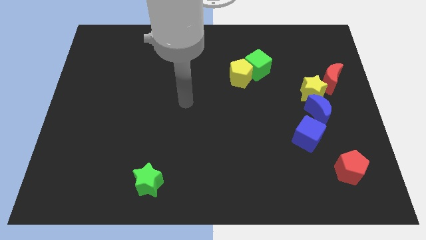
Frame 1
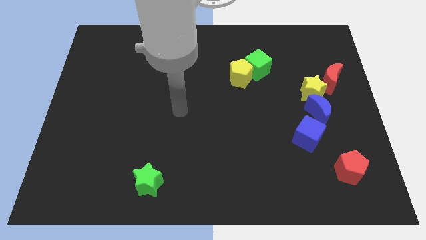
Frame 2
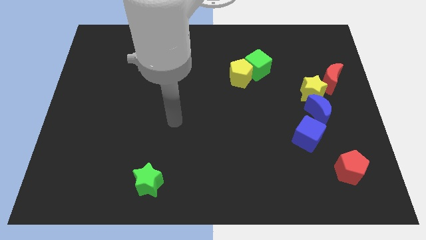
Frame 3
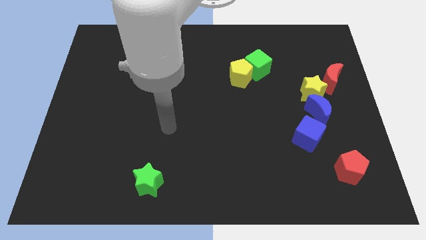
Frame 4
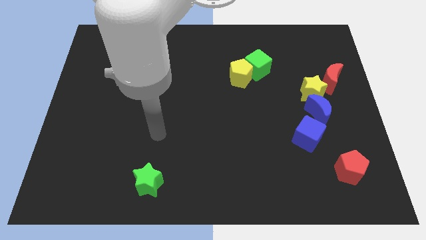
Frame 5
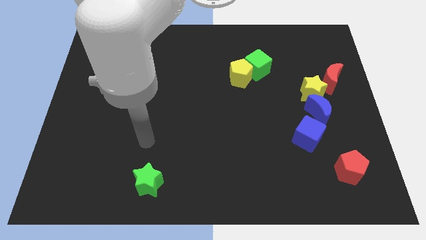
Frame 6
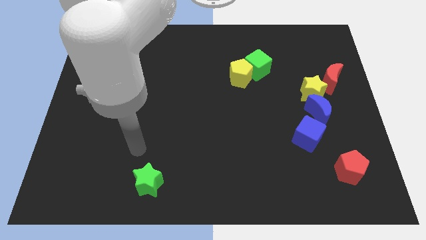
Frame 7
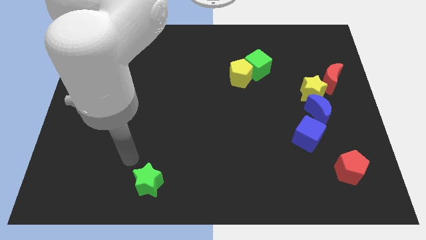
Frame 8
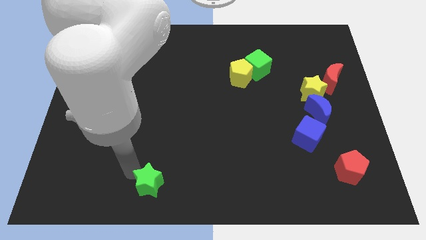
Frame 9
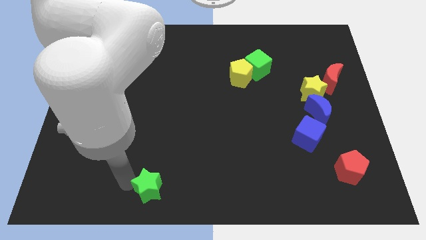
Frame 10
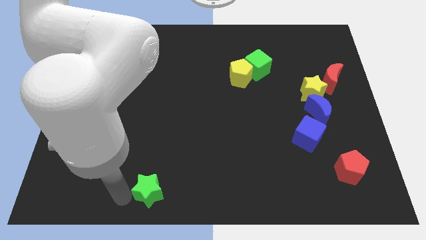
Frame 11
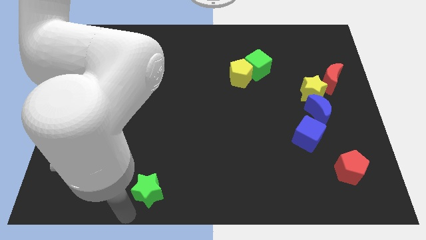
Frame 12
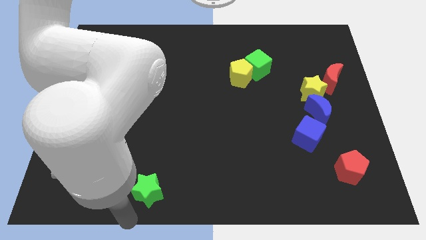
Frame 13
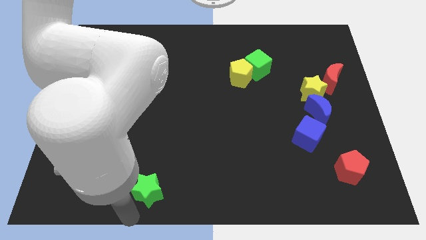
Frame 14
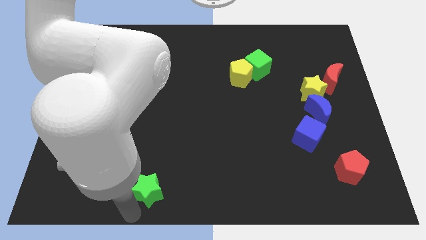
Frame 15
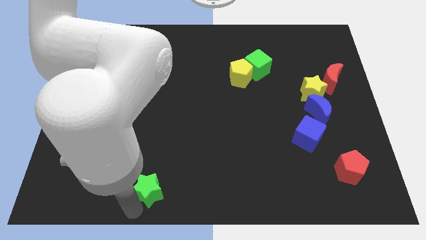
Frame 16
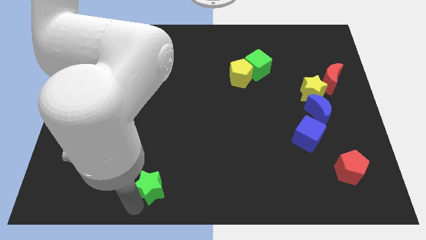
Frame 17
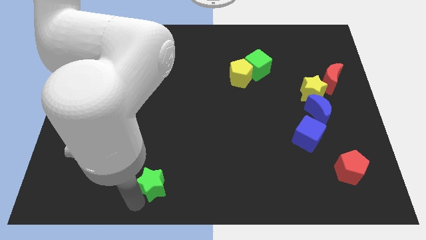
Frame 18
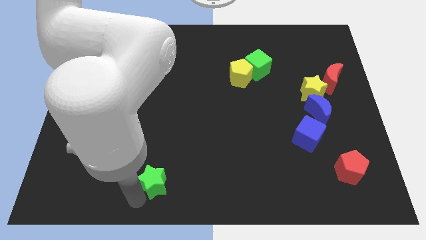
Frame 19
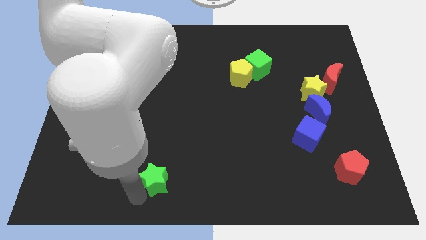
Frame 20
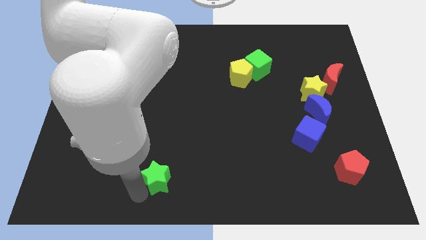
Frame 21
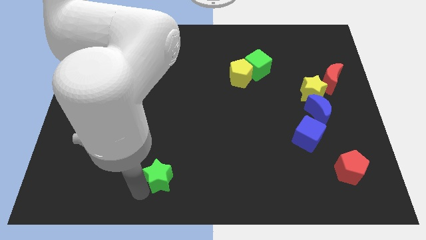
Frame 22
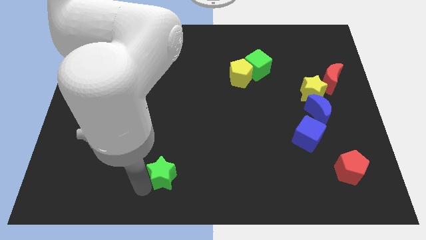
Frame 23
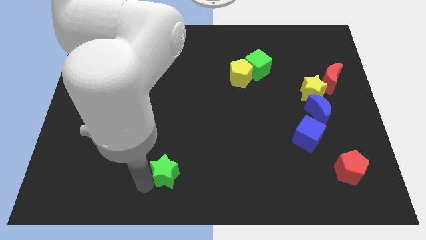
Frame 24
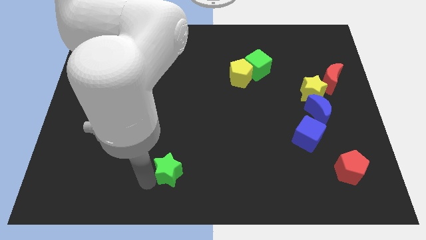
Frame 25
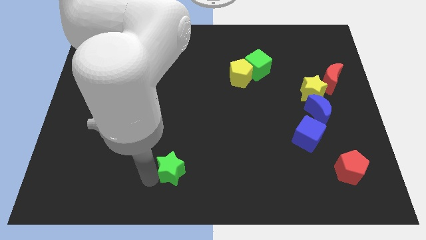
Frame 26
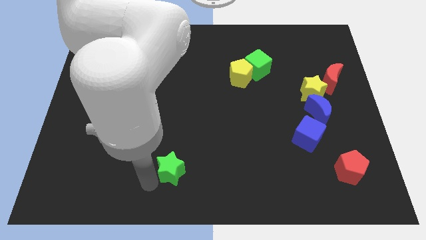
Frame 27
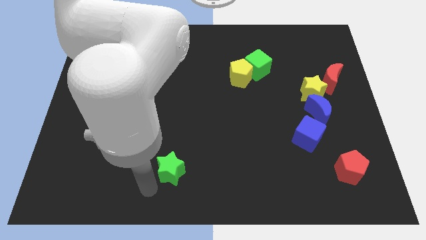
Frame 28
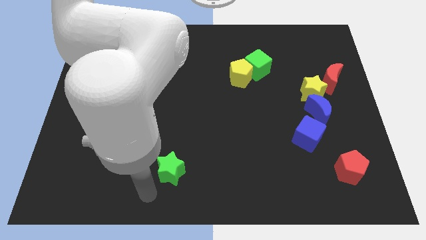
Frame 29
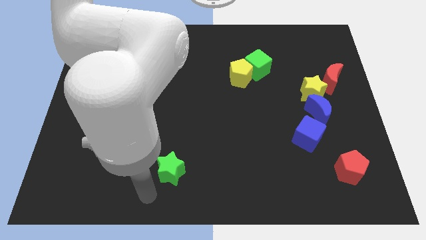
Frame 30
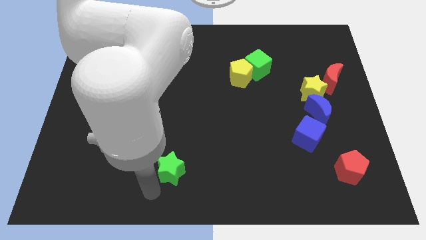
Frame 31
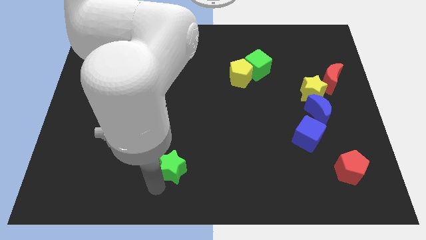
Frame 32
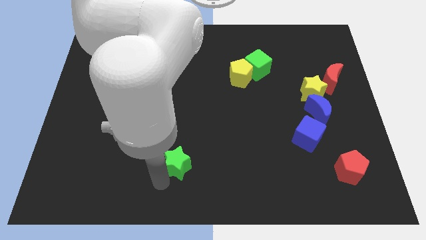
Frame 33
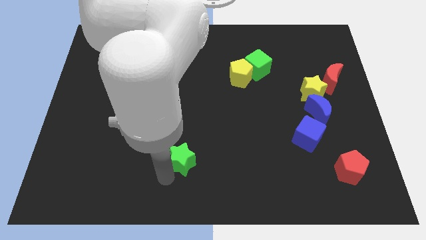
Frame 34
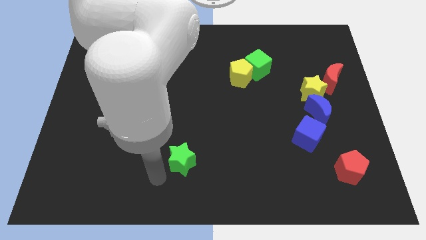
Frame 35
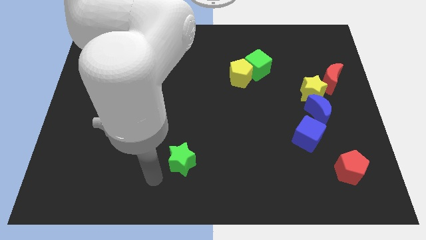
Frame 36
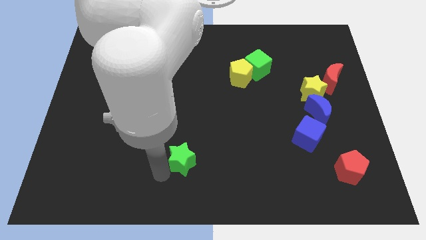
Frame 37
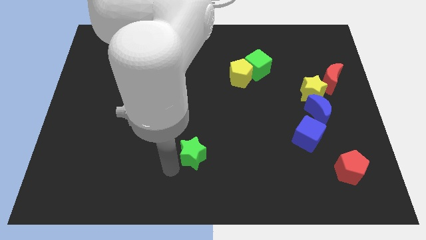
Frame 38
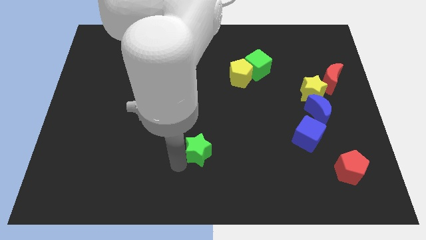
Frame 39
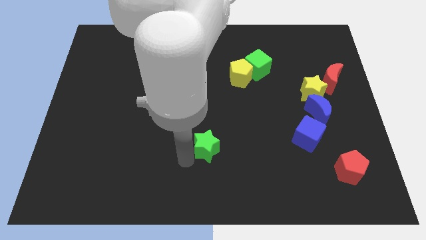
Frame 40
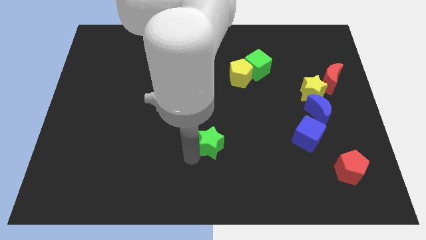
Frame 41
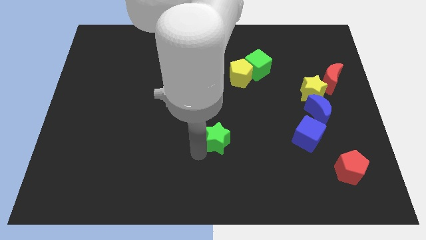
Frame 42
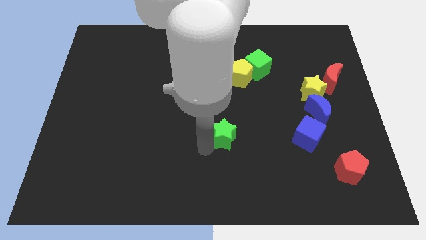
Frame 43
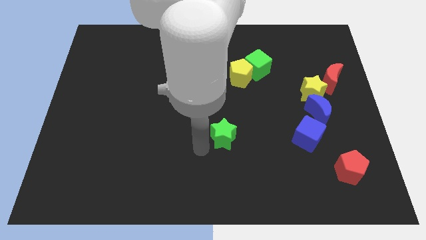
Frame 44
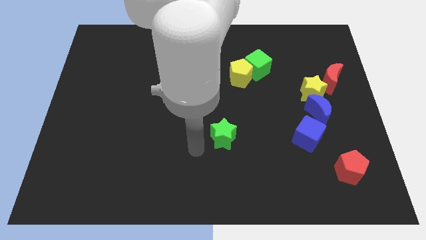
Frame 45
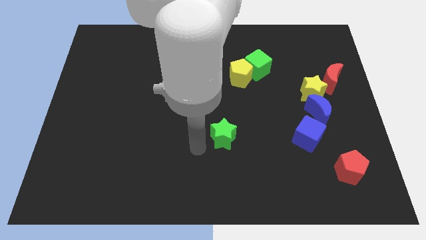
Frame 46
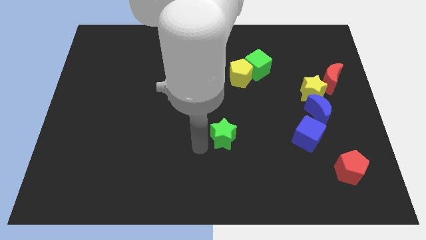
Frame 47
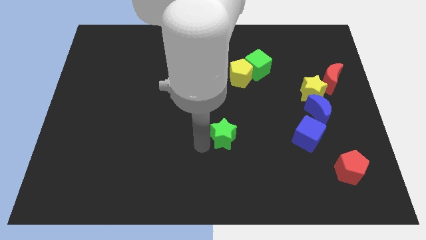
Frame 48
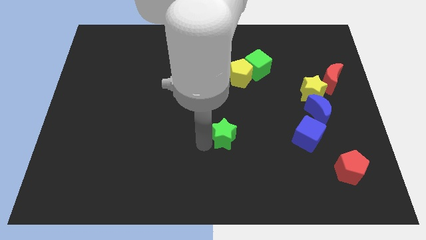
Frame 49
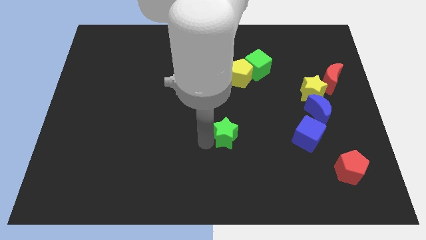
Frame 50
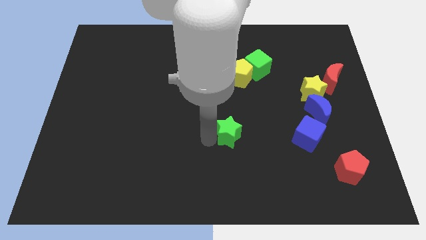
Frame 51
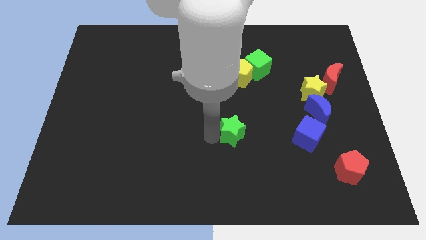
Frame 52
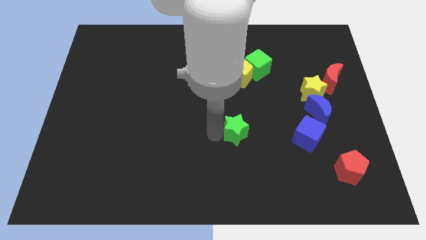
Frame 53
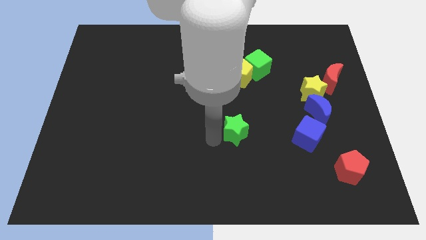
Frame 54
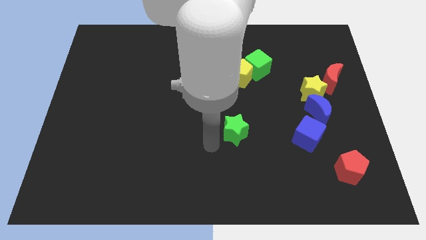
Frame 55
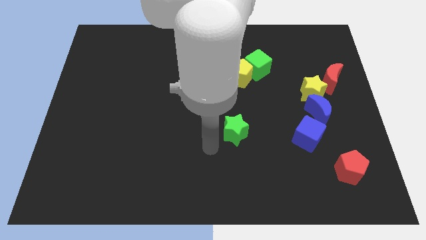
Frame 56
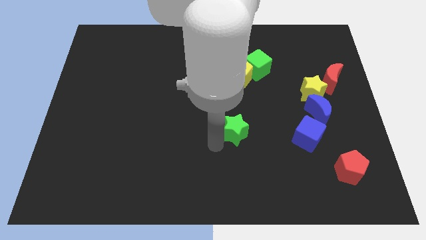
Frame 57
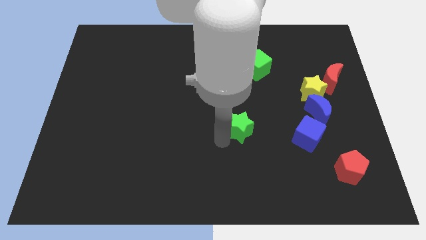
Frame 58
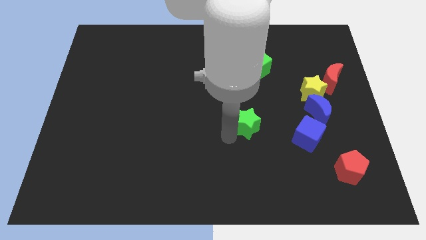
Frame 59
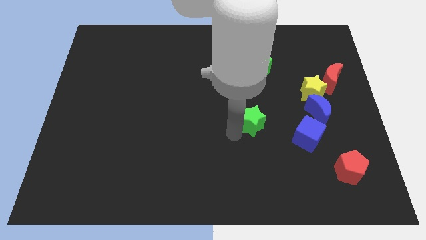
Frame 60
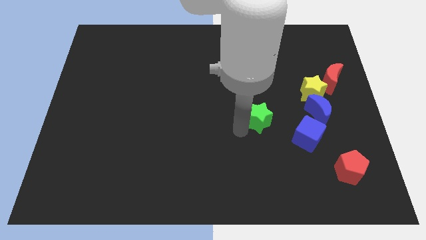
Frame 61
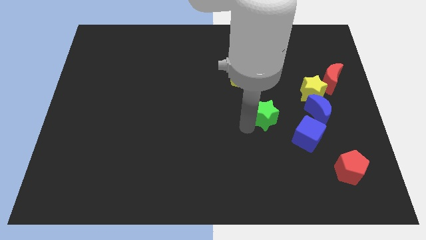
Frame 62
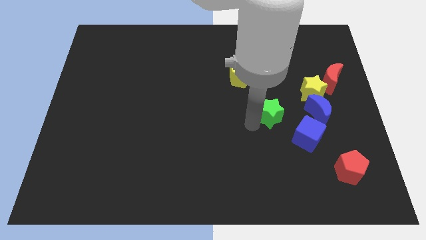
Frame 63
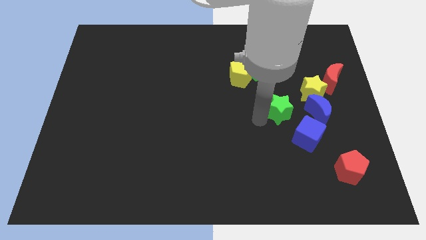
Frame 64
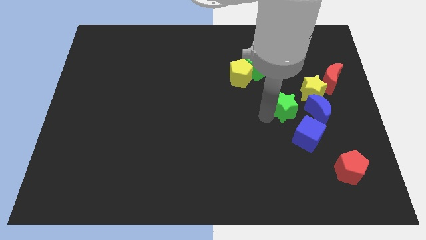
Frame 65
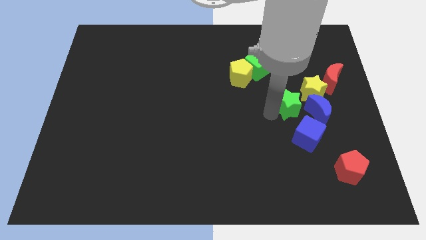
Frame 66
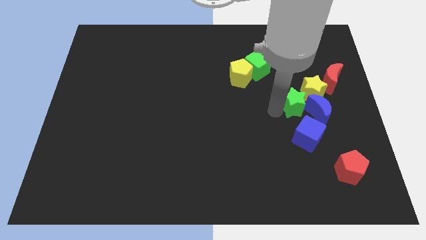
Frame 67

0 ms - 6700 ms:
move the green star to the blue moon

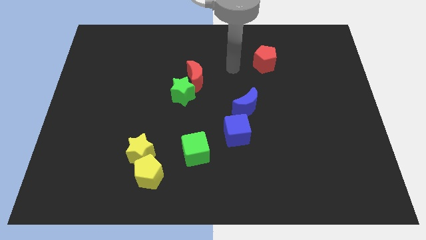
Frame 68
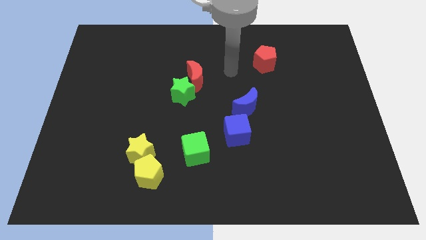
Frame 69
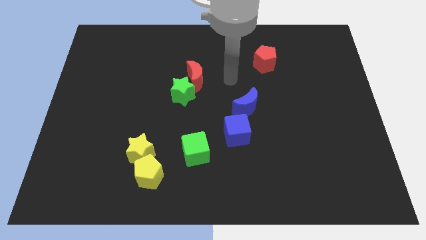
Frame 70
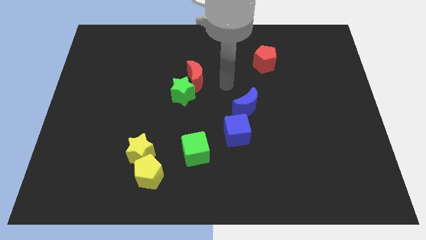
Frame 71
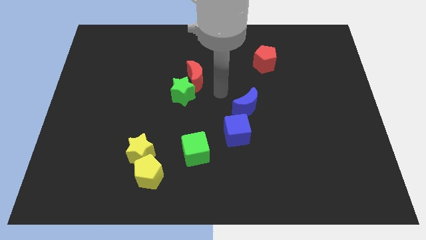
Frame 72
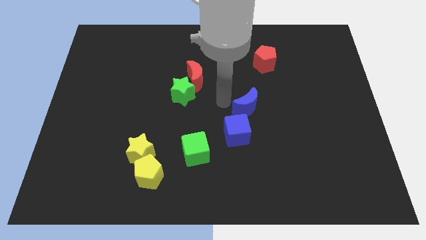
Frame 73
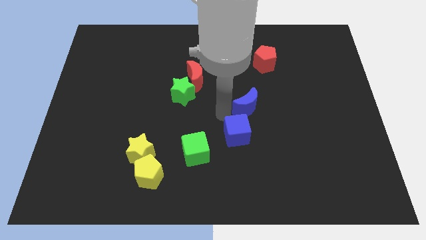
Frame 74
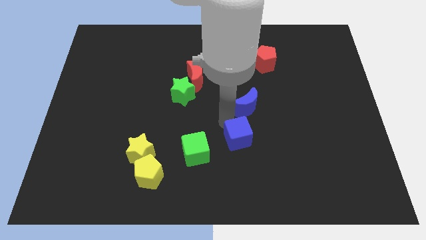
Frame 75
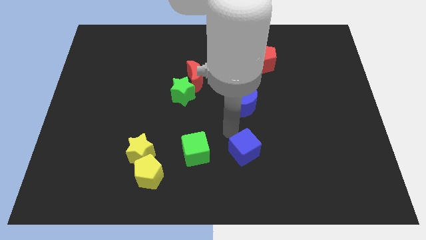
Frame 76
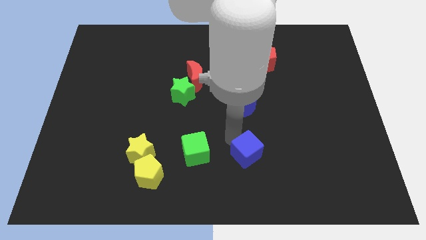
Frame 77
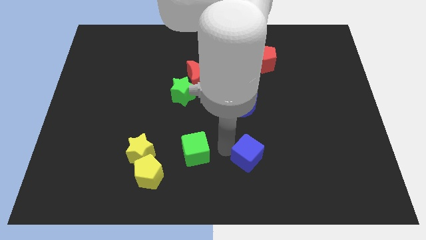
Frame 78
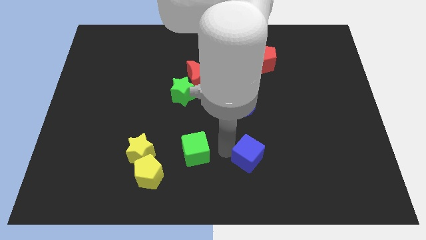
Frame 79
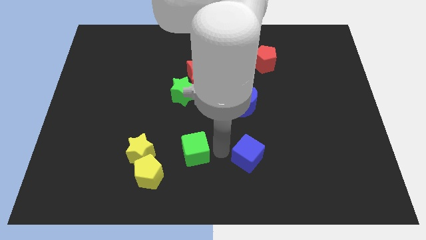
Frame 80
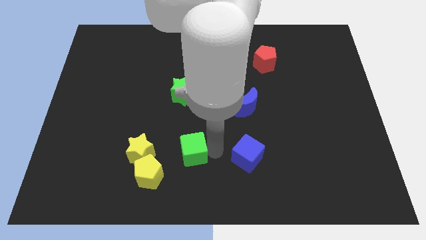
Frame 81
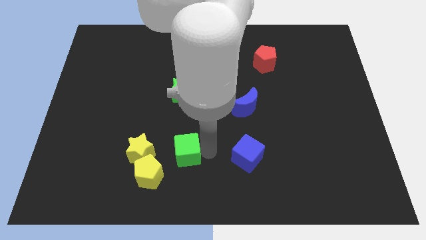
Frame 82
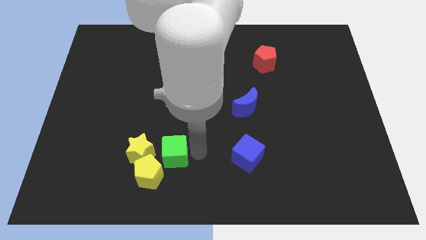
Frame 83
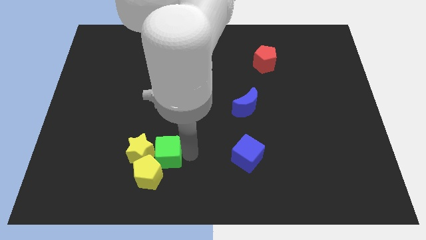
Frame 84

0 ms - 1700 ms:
push the green cube towards the yellow star
